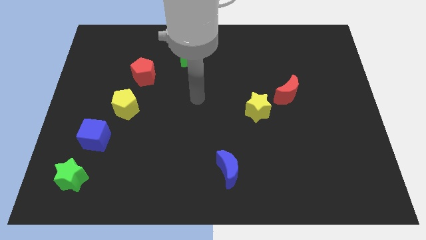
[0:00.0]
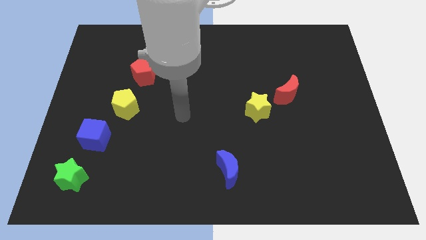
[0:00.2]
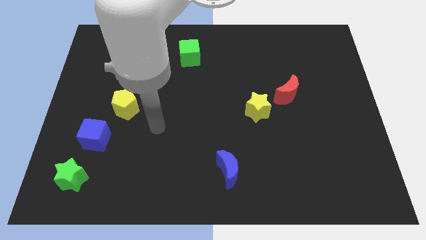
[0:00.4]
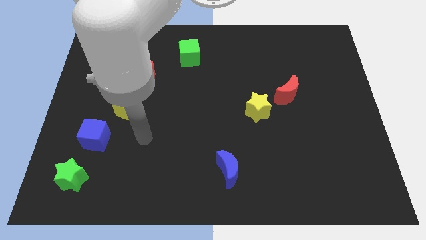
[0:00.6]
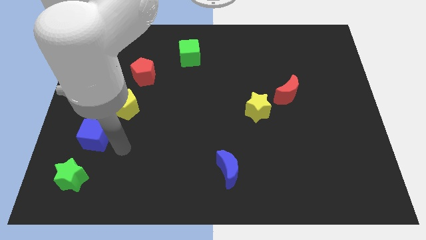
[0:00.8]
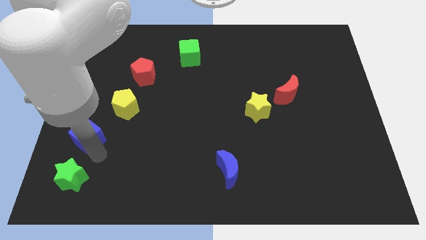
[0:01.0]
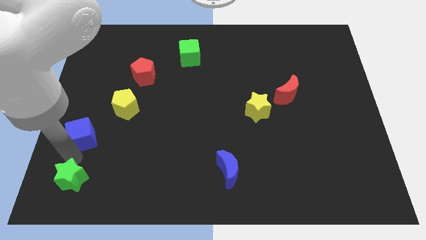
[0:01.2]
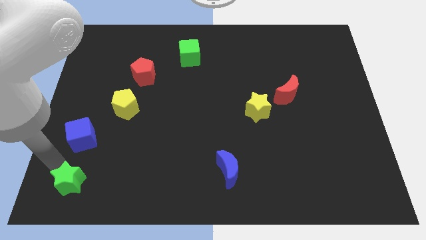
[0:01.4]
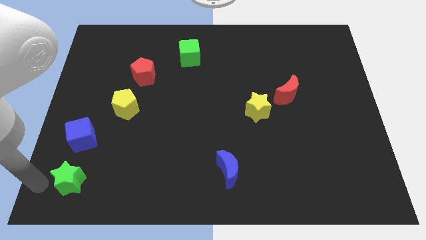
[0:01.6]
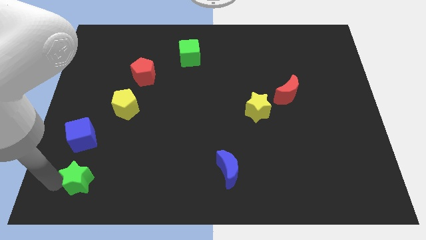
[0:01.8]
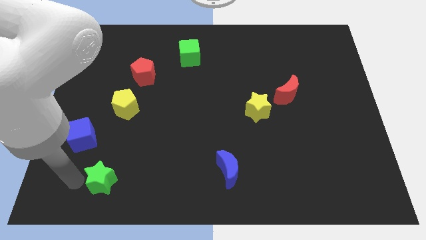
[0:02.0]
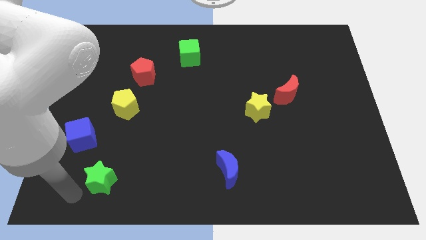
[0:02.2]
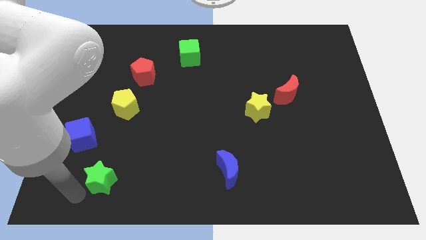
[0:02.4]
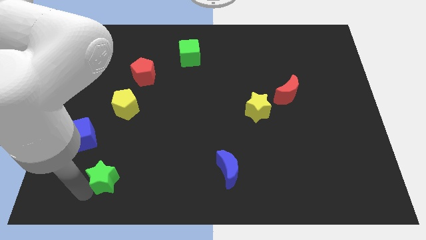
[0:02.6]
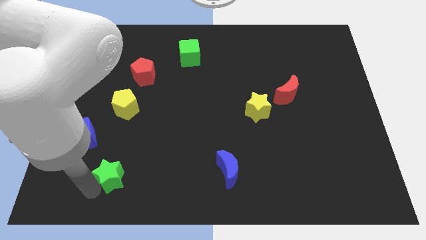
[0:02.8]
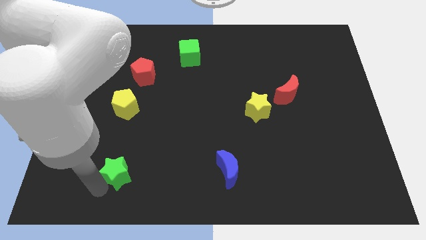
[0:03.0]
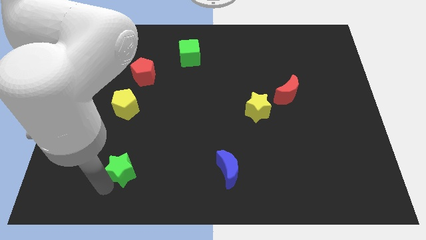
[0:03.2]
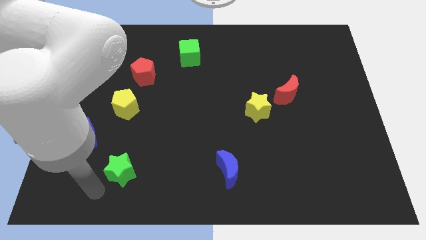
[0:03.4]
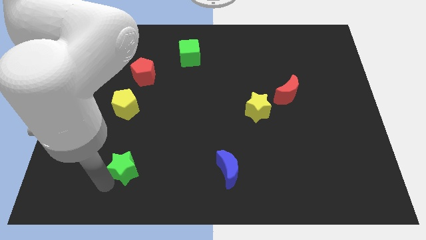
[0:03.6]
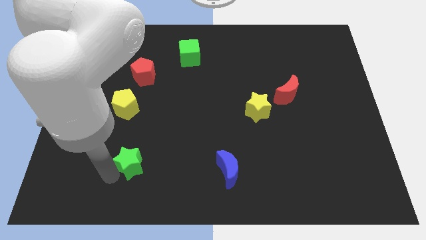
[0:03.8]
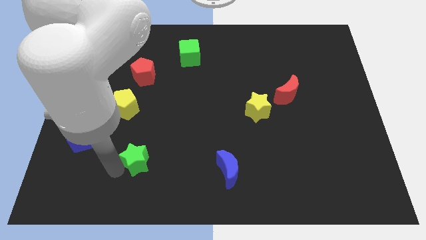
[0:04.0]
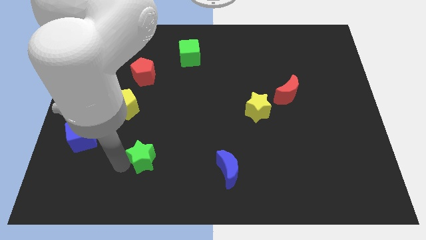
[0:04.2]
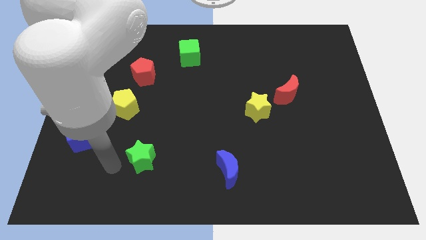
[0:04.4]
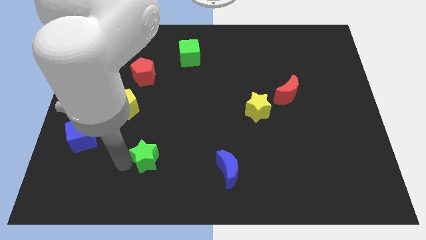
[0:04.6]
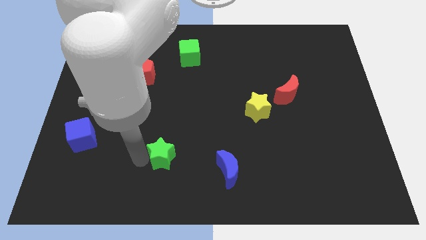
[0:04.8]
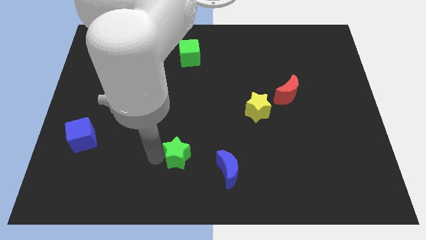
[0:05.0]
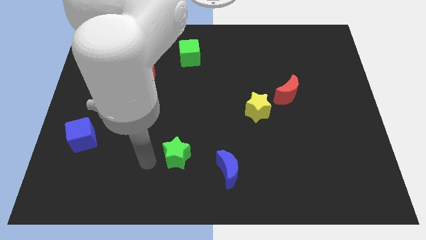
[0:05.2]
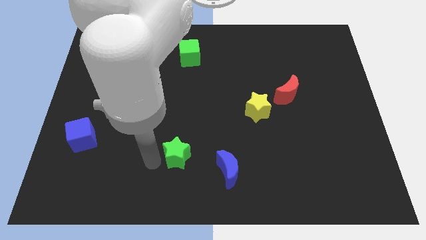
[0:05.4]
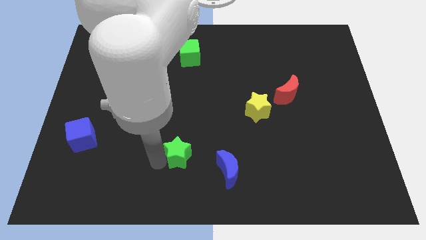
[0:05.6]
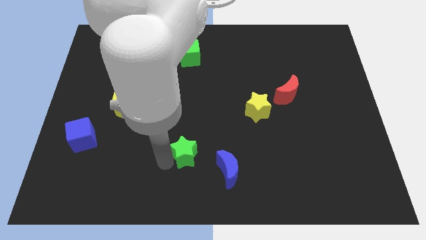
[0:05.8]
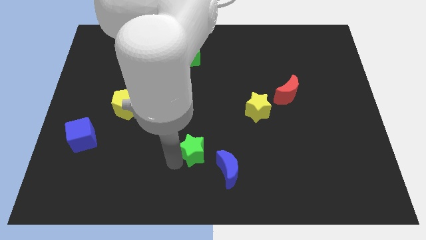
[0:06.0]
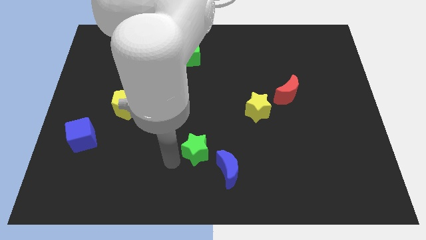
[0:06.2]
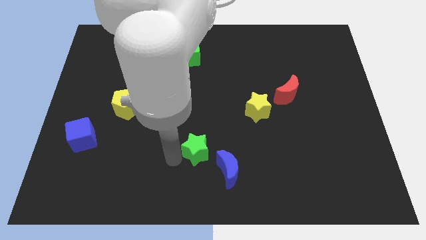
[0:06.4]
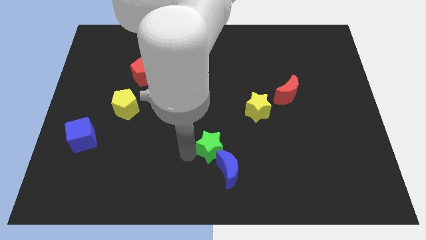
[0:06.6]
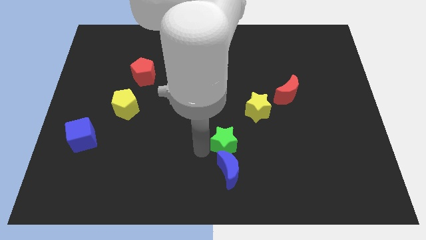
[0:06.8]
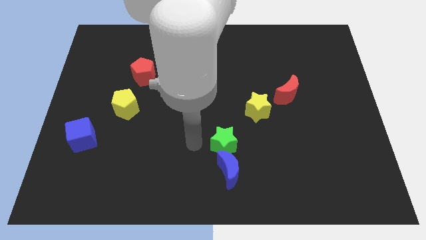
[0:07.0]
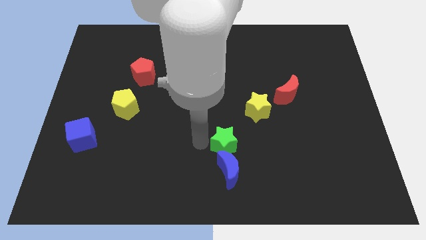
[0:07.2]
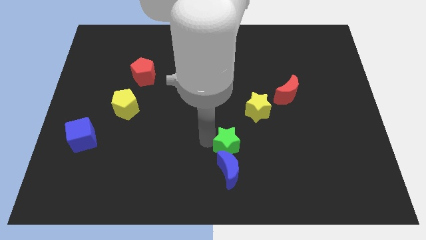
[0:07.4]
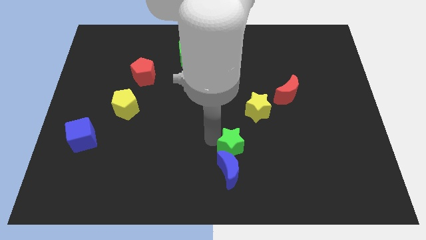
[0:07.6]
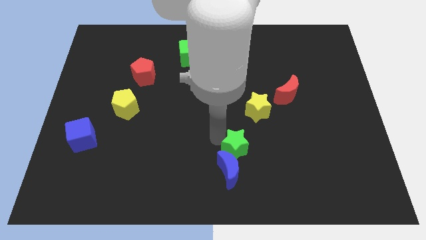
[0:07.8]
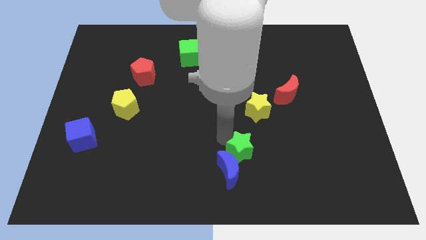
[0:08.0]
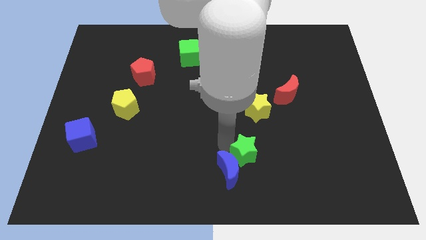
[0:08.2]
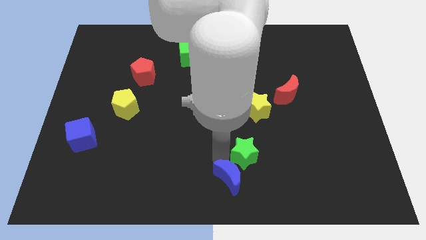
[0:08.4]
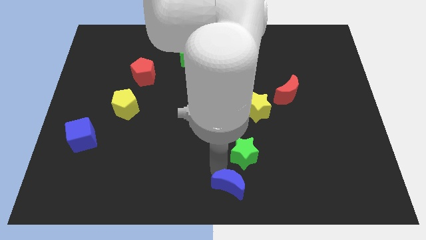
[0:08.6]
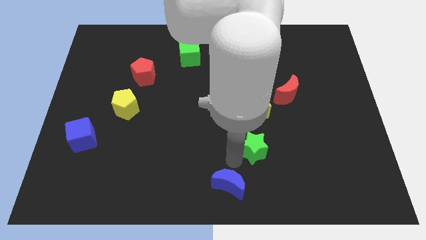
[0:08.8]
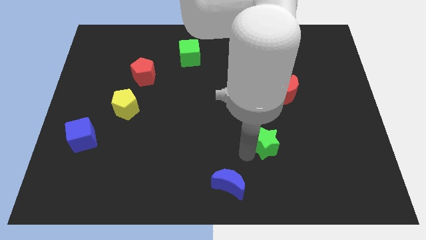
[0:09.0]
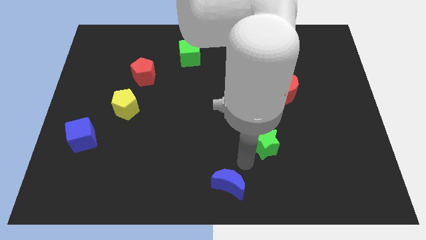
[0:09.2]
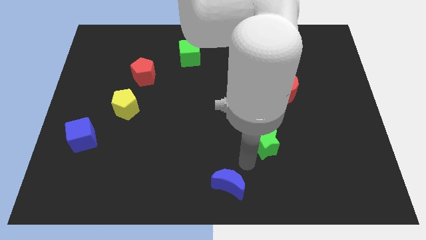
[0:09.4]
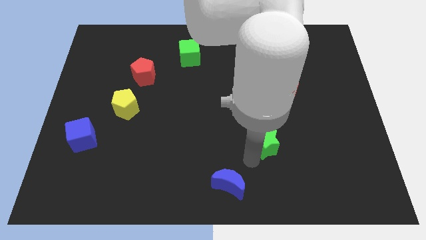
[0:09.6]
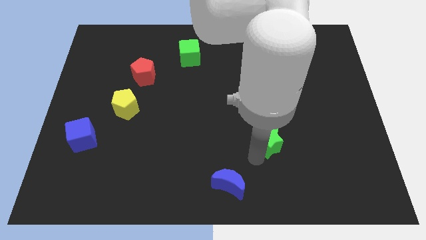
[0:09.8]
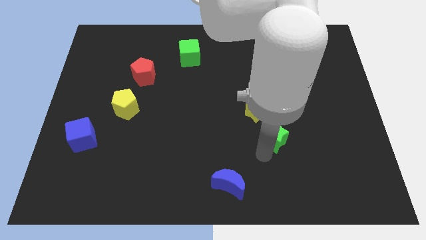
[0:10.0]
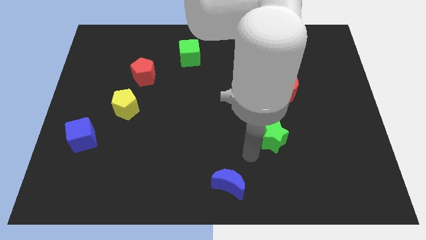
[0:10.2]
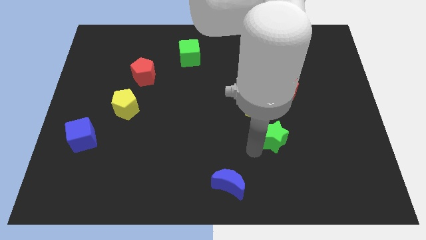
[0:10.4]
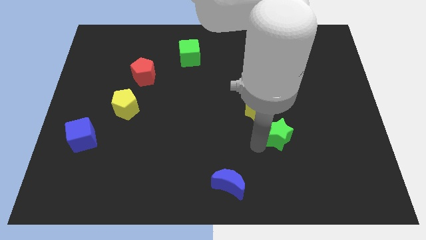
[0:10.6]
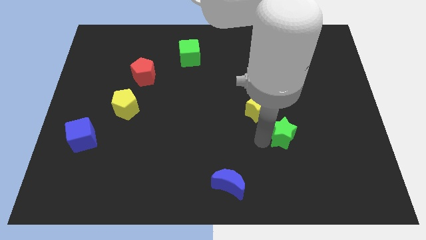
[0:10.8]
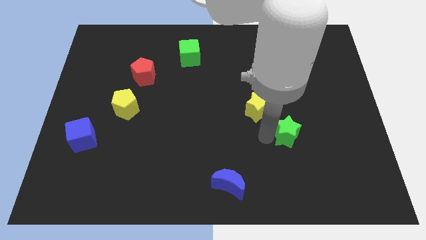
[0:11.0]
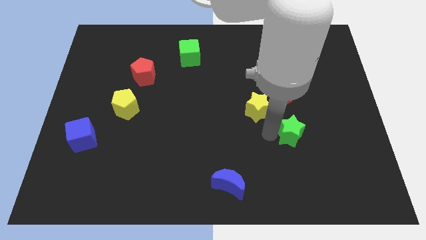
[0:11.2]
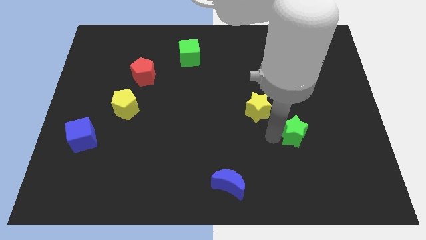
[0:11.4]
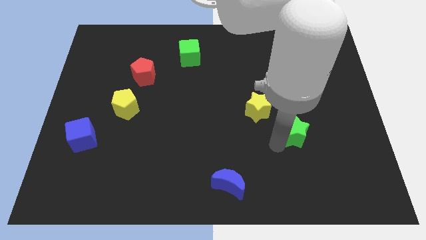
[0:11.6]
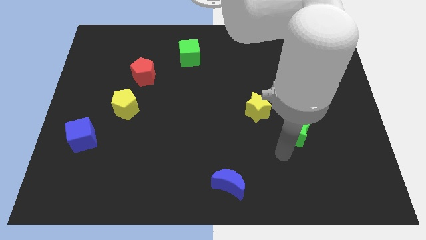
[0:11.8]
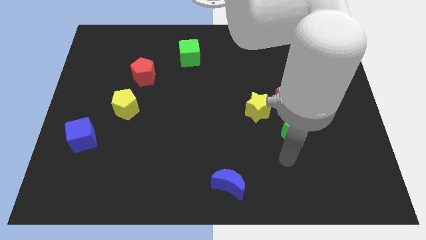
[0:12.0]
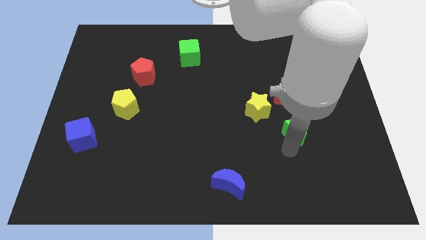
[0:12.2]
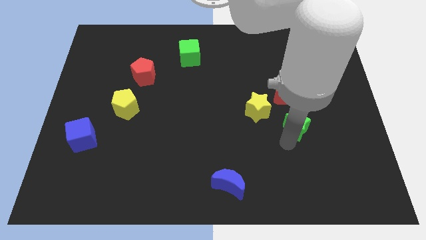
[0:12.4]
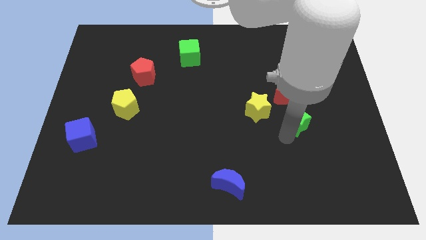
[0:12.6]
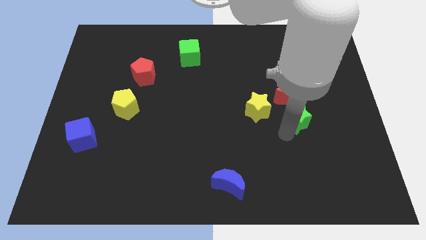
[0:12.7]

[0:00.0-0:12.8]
slide the green star to the bottom right side of the red moon

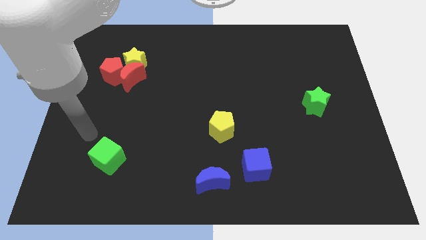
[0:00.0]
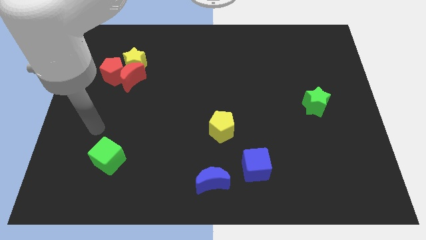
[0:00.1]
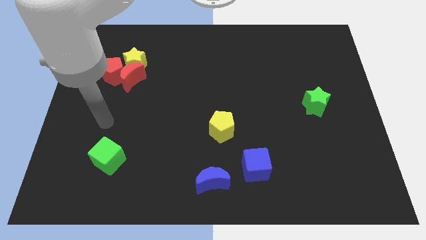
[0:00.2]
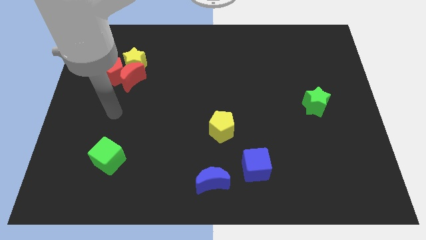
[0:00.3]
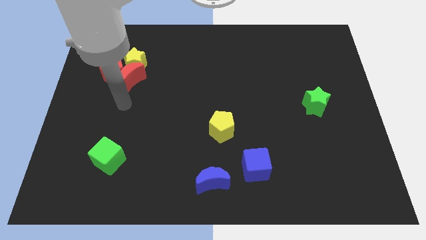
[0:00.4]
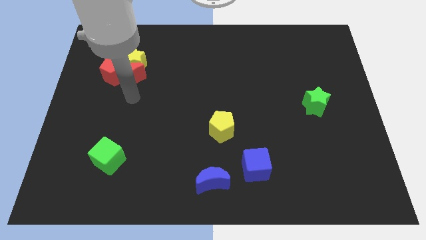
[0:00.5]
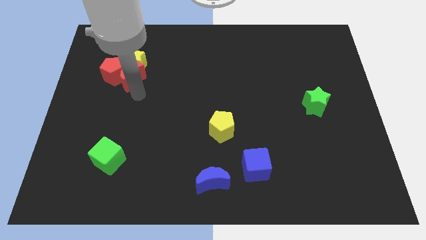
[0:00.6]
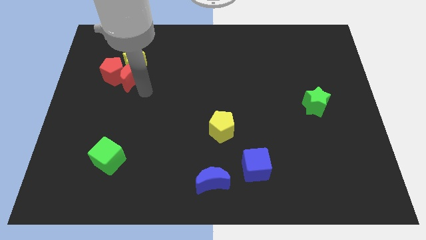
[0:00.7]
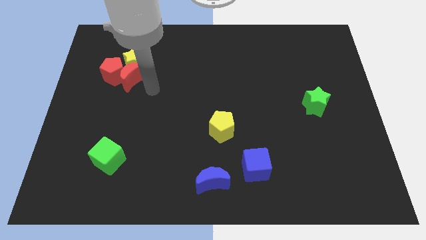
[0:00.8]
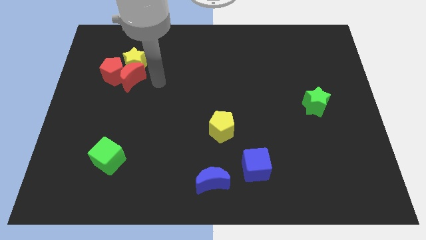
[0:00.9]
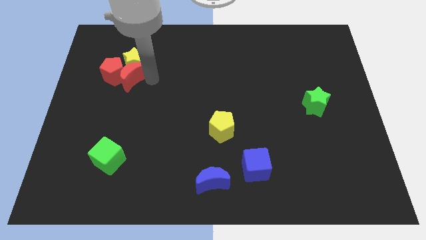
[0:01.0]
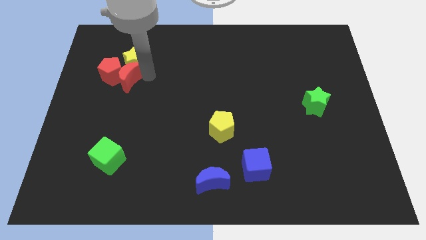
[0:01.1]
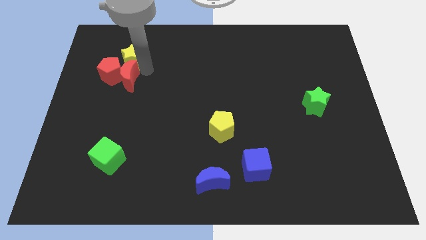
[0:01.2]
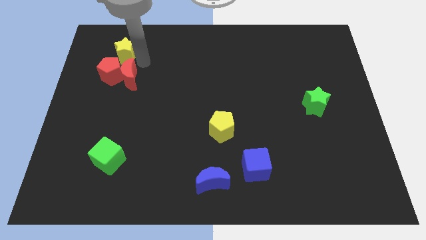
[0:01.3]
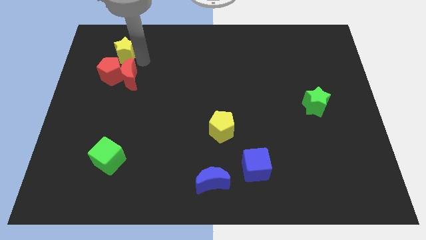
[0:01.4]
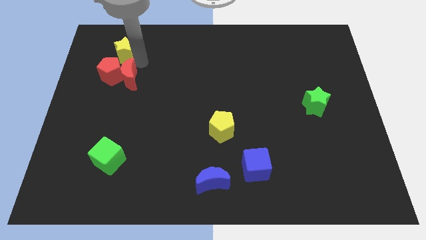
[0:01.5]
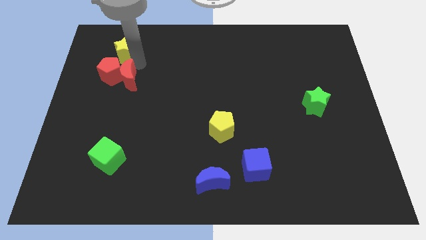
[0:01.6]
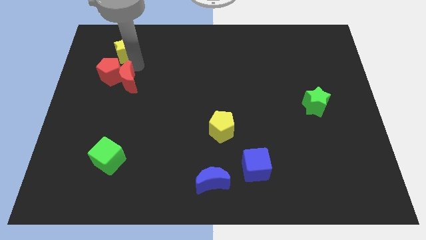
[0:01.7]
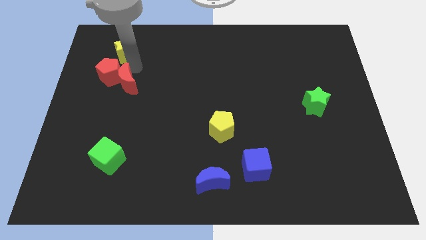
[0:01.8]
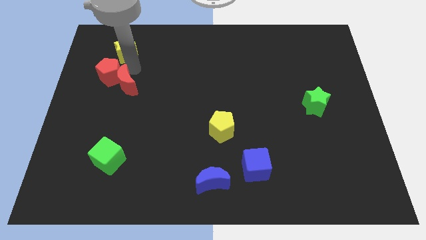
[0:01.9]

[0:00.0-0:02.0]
push the red moon to the bottom side of the red pentagon

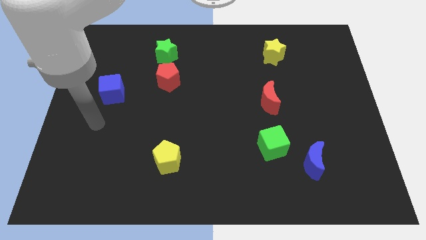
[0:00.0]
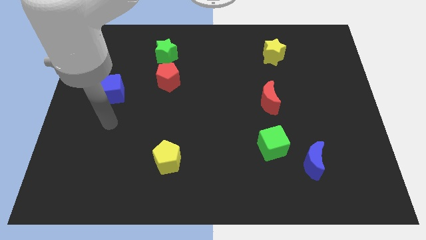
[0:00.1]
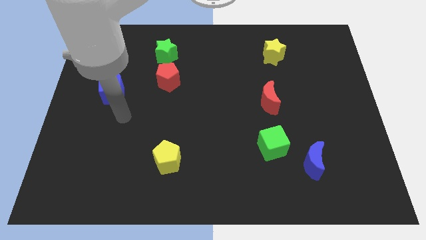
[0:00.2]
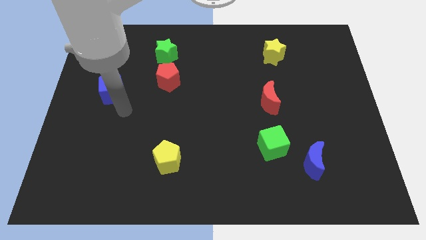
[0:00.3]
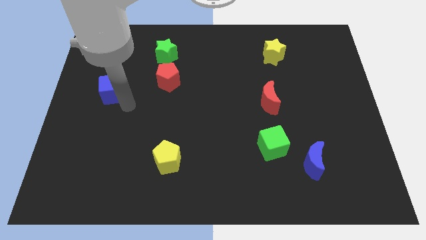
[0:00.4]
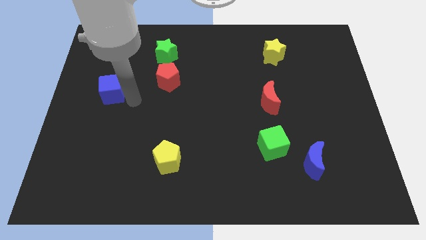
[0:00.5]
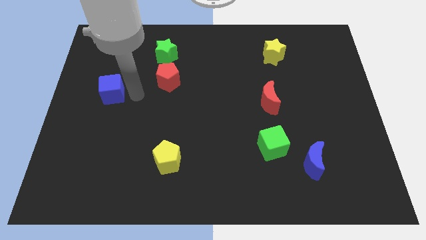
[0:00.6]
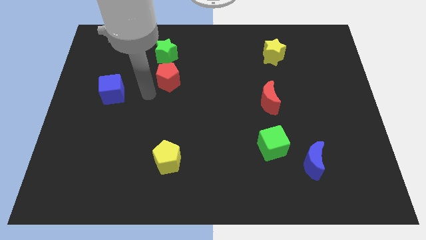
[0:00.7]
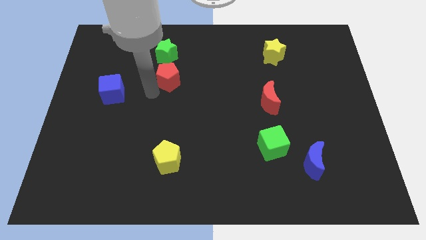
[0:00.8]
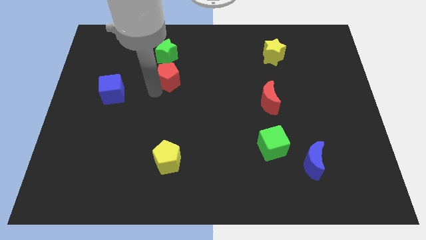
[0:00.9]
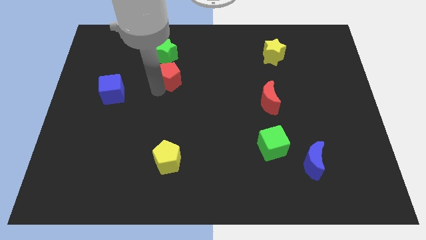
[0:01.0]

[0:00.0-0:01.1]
push the red pentagon to the bottom right of the green star
